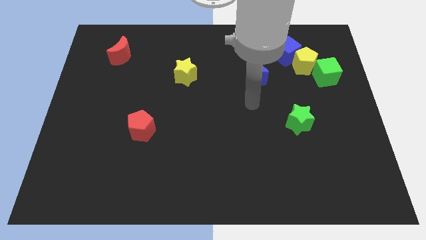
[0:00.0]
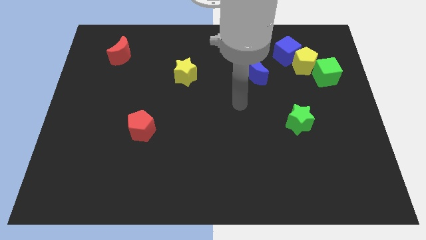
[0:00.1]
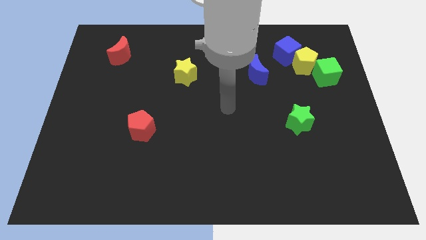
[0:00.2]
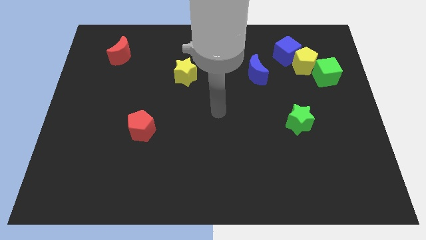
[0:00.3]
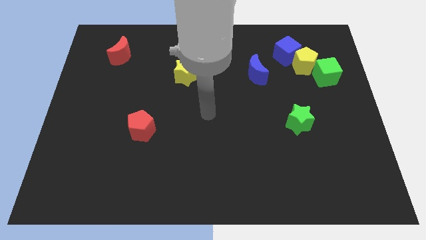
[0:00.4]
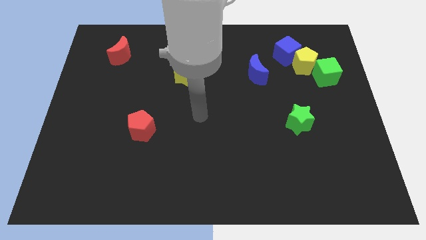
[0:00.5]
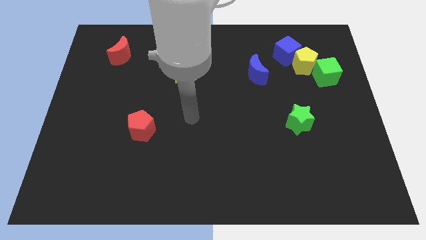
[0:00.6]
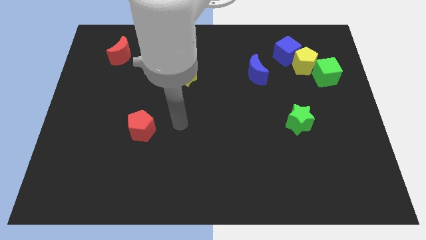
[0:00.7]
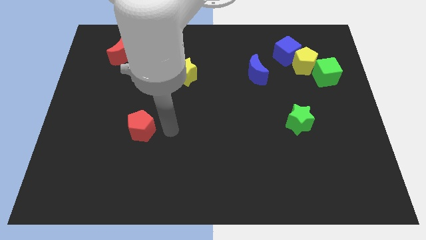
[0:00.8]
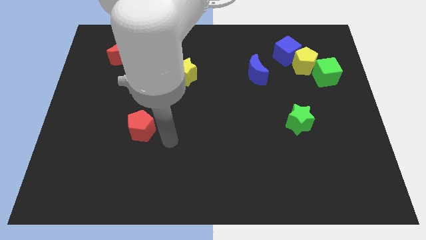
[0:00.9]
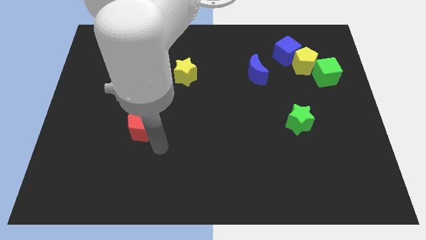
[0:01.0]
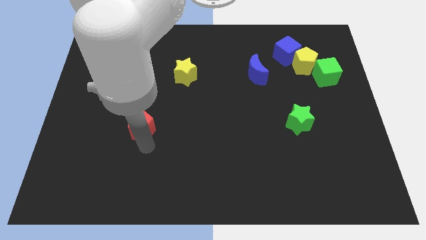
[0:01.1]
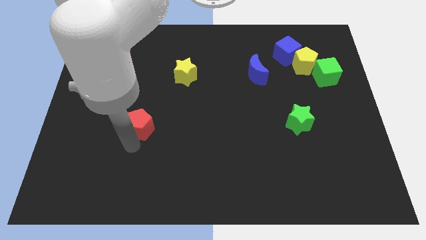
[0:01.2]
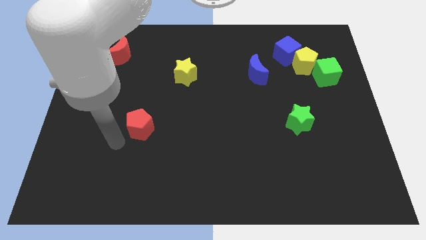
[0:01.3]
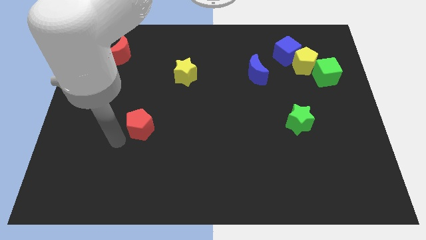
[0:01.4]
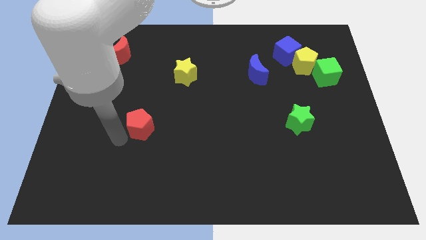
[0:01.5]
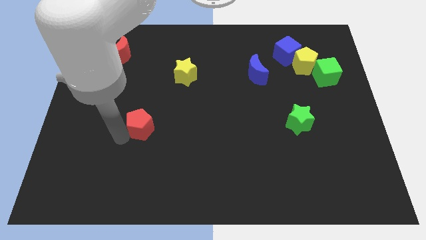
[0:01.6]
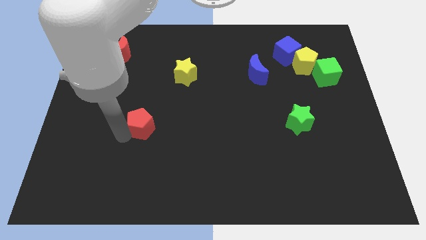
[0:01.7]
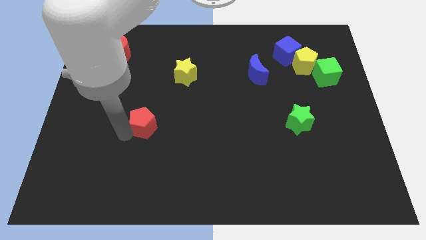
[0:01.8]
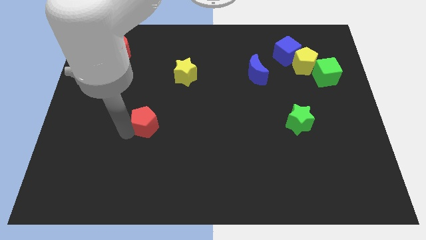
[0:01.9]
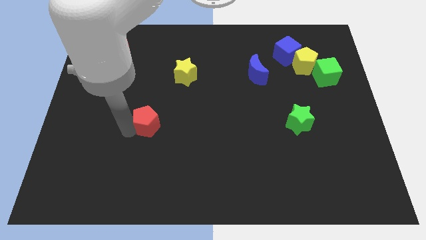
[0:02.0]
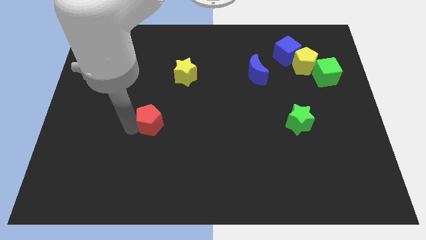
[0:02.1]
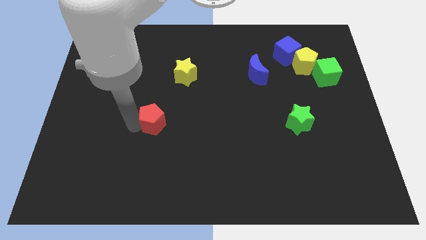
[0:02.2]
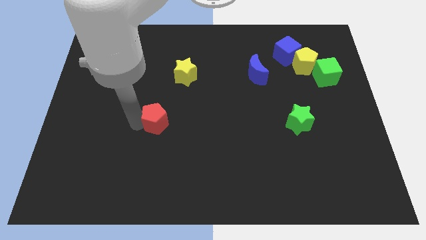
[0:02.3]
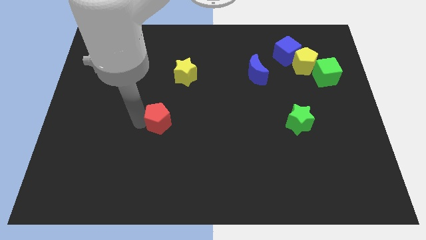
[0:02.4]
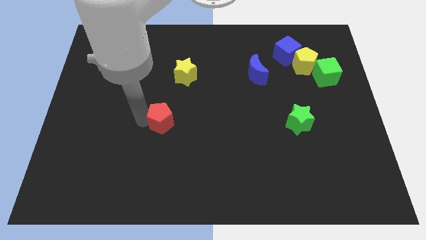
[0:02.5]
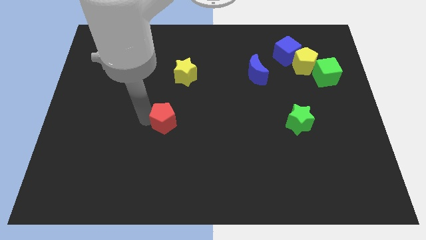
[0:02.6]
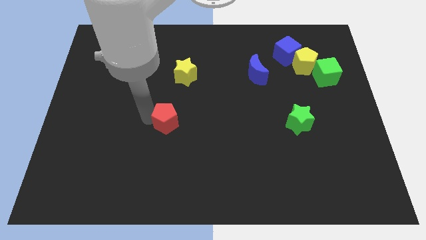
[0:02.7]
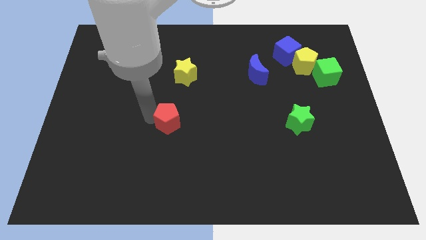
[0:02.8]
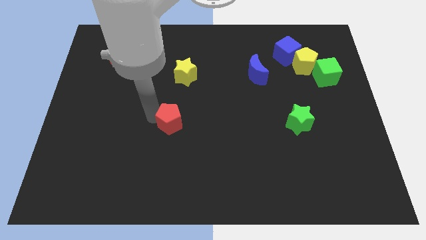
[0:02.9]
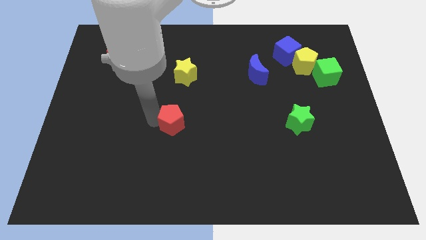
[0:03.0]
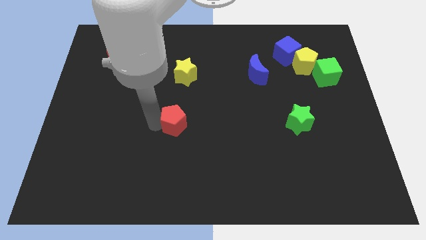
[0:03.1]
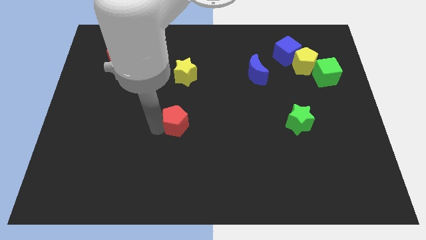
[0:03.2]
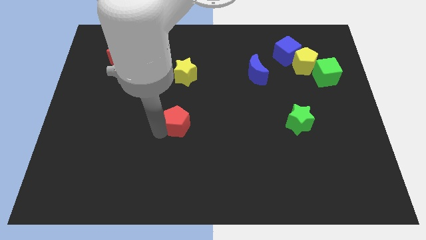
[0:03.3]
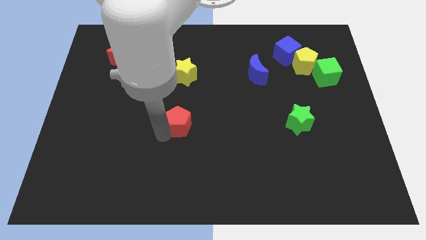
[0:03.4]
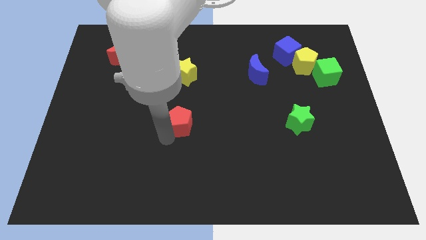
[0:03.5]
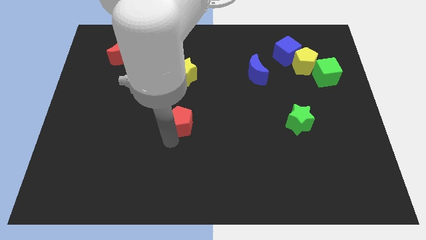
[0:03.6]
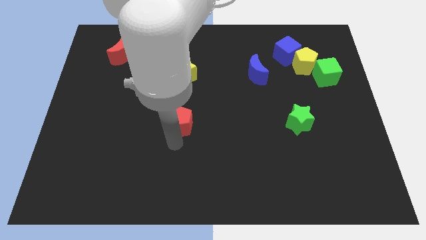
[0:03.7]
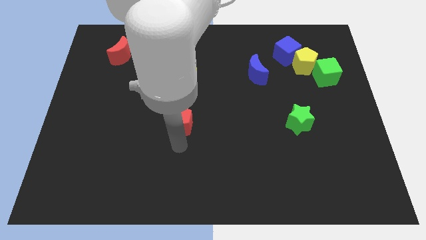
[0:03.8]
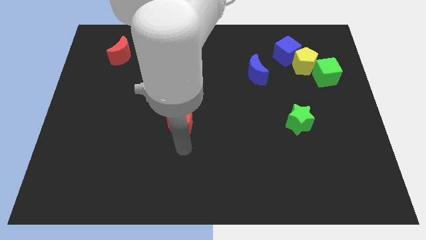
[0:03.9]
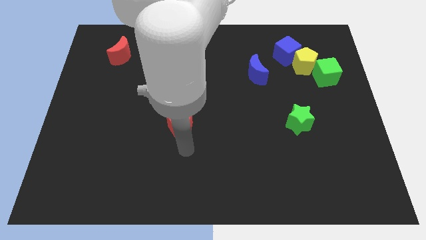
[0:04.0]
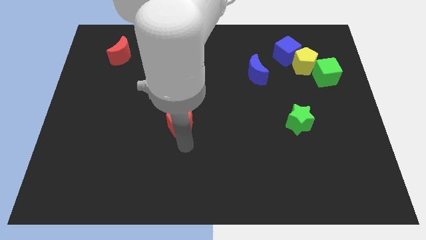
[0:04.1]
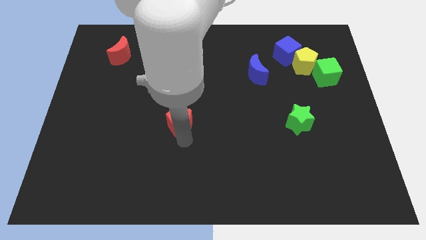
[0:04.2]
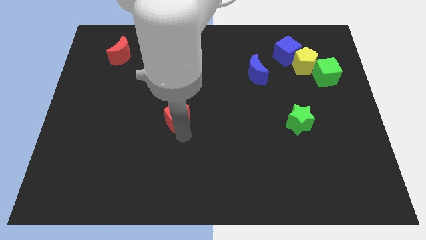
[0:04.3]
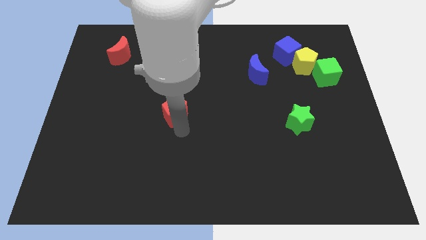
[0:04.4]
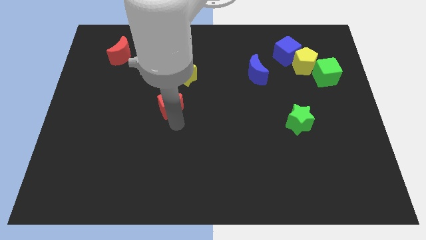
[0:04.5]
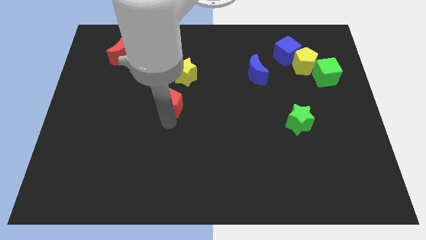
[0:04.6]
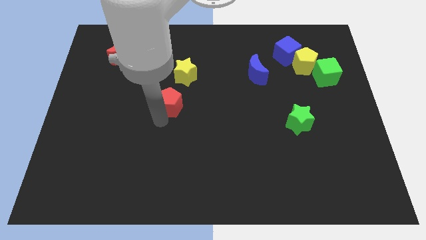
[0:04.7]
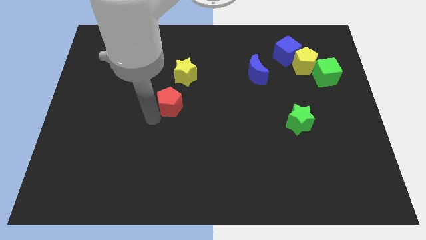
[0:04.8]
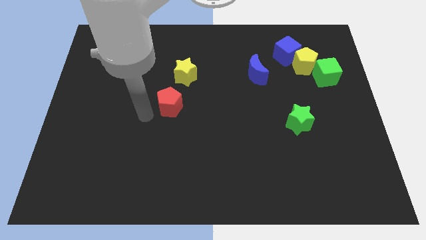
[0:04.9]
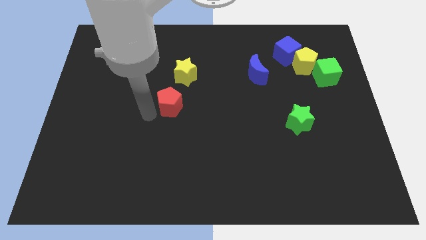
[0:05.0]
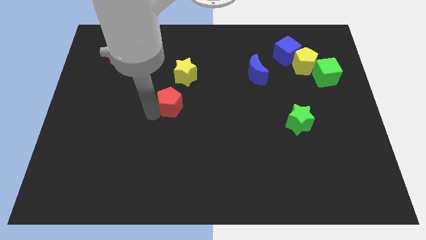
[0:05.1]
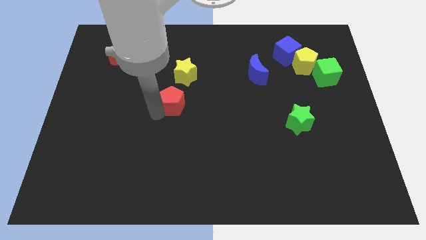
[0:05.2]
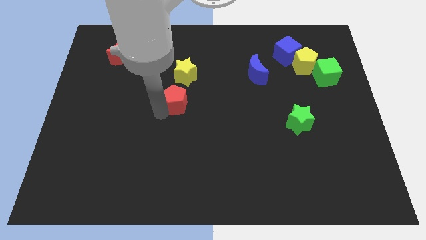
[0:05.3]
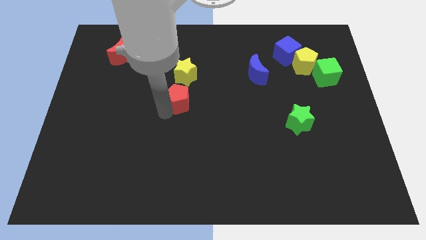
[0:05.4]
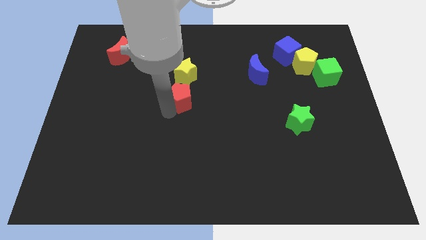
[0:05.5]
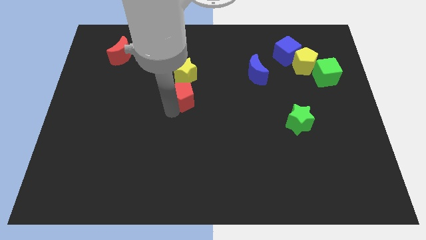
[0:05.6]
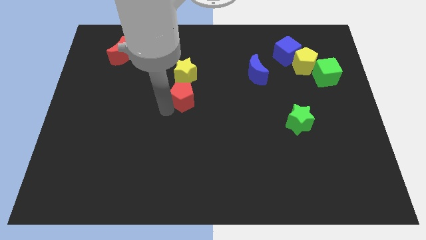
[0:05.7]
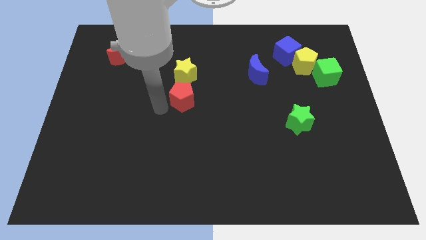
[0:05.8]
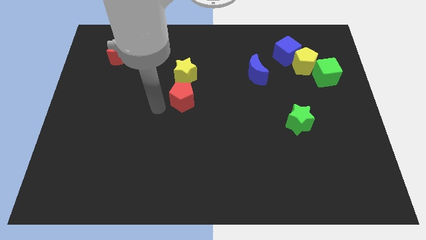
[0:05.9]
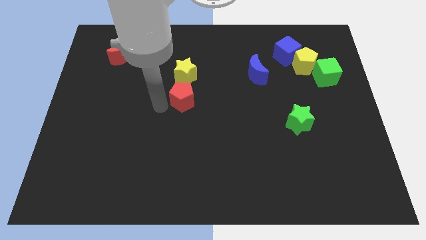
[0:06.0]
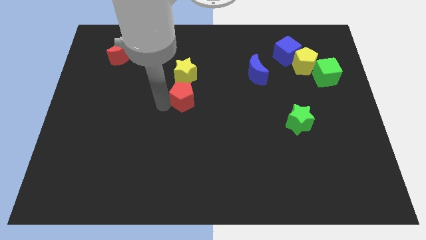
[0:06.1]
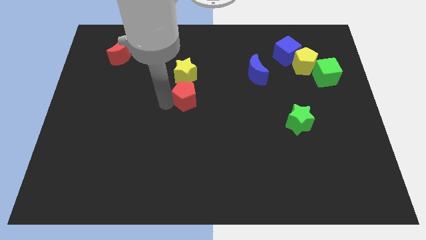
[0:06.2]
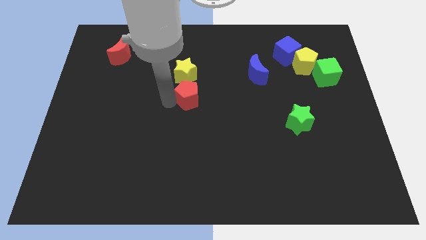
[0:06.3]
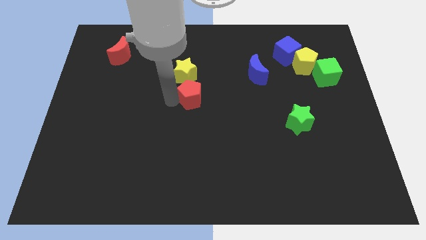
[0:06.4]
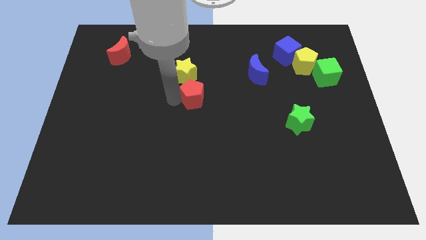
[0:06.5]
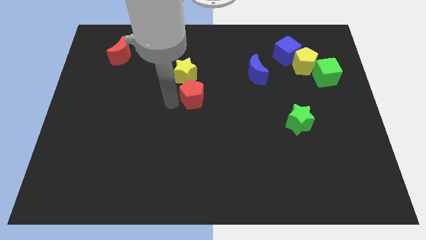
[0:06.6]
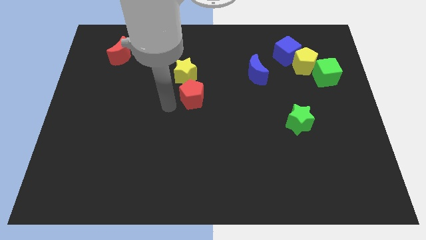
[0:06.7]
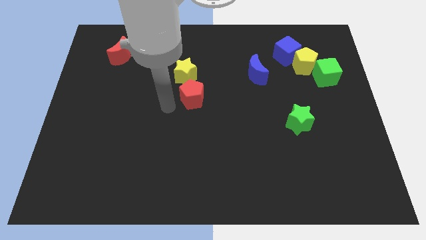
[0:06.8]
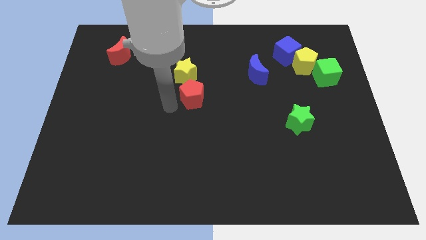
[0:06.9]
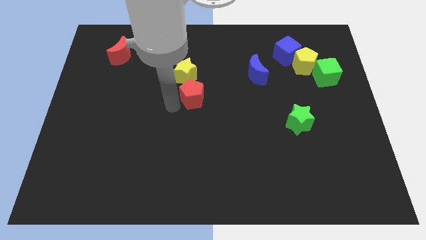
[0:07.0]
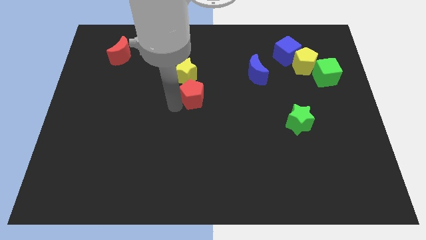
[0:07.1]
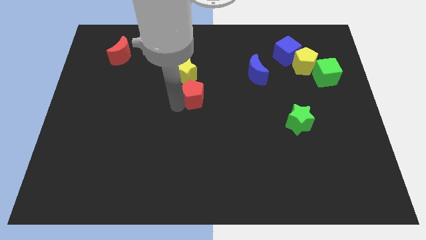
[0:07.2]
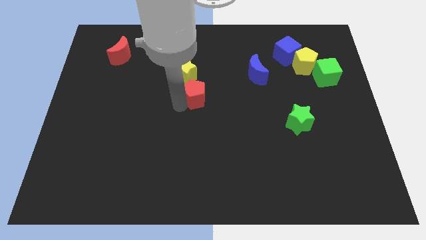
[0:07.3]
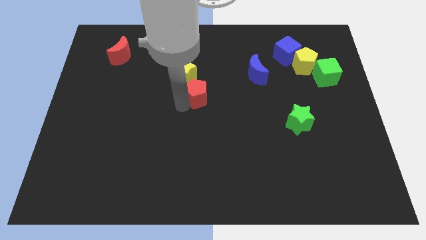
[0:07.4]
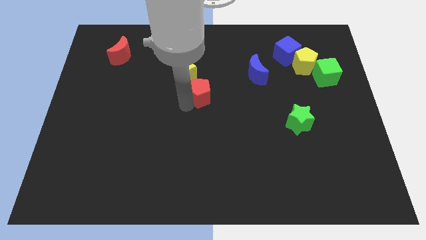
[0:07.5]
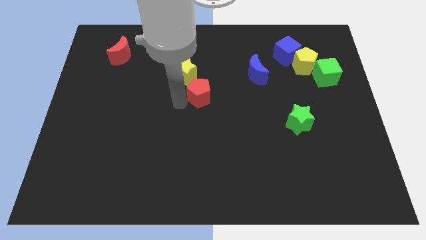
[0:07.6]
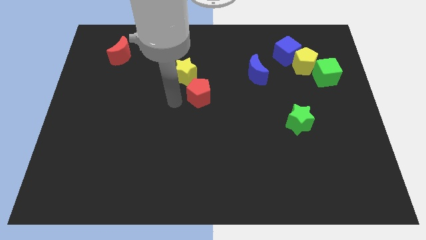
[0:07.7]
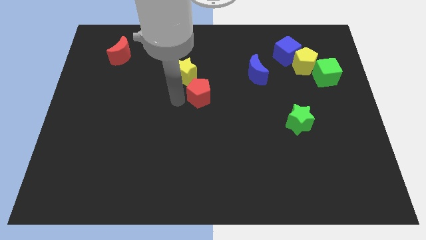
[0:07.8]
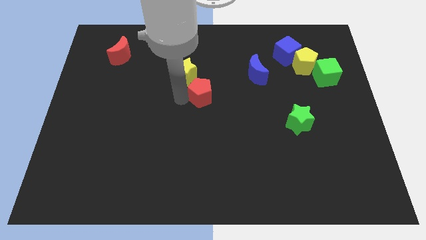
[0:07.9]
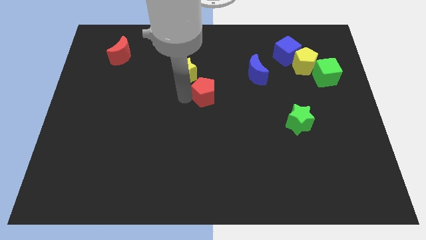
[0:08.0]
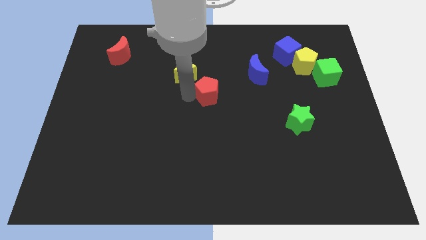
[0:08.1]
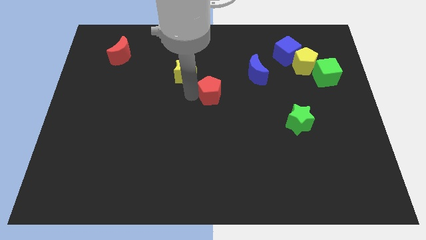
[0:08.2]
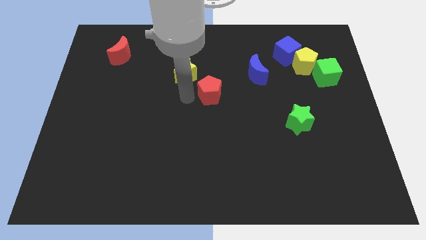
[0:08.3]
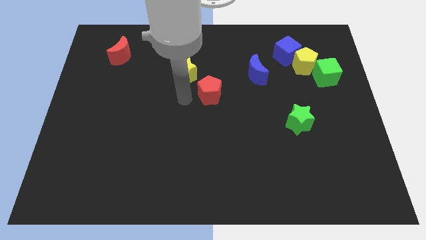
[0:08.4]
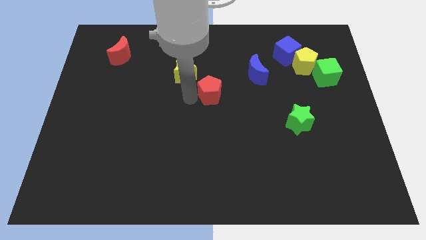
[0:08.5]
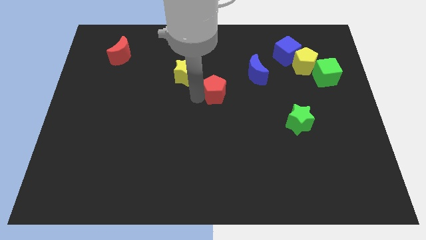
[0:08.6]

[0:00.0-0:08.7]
push the red pentagon to the bottom left of the blue moon
